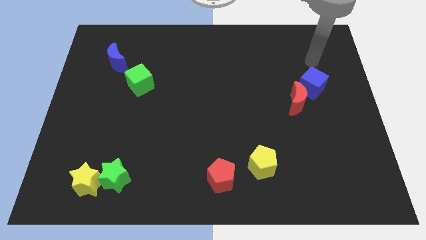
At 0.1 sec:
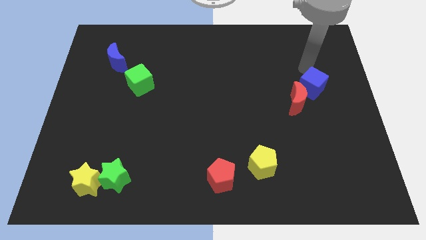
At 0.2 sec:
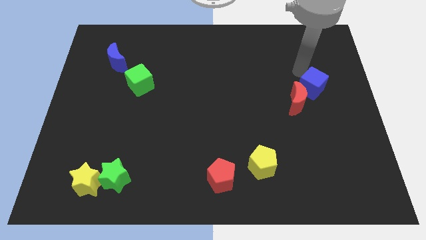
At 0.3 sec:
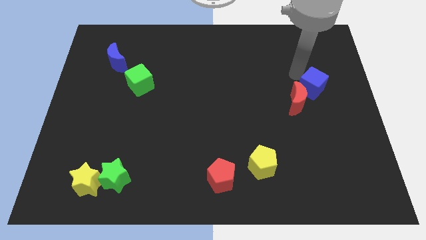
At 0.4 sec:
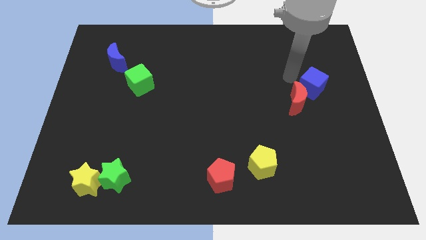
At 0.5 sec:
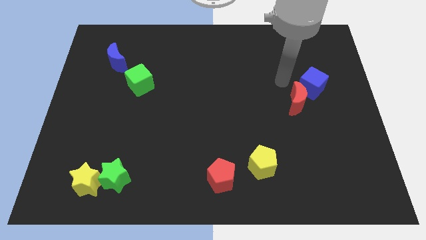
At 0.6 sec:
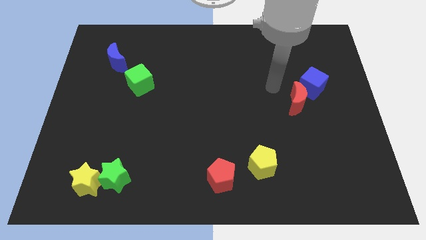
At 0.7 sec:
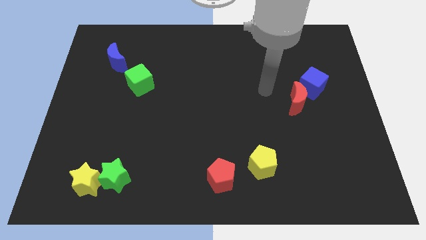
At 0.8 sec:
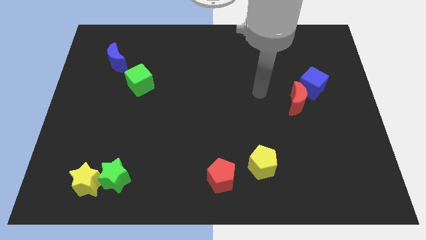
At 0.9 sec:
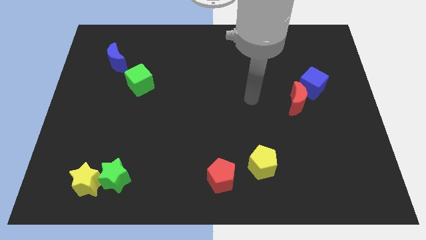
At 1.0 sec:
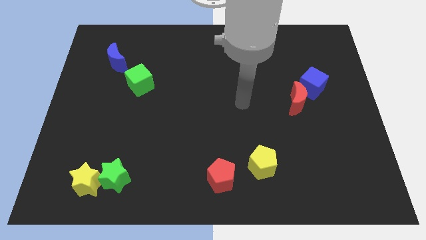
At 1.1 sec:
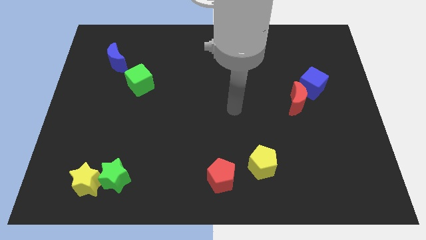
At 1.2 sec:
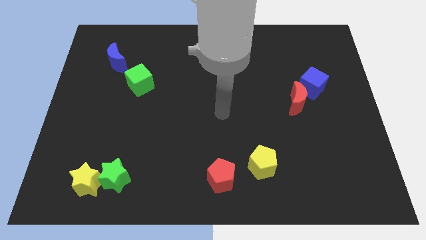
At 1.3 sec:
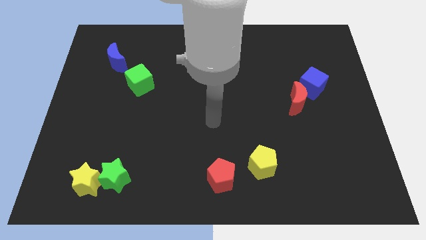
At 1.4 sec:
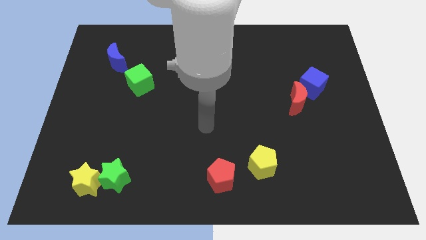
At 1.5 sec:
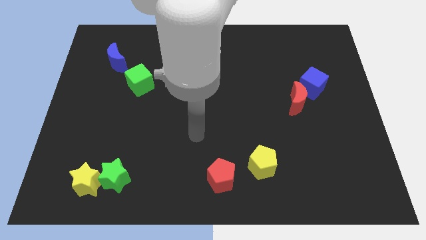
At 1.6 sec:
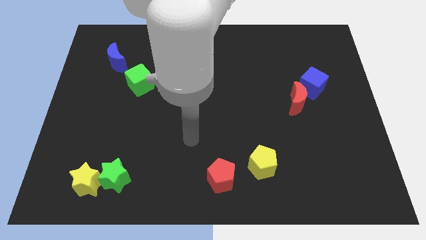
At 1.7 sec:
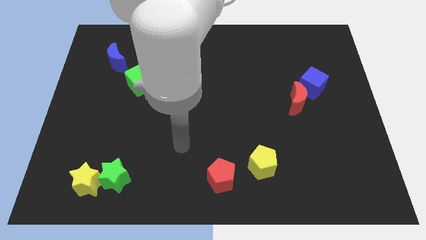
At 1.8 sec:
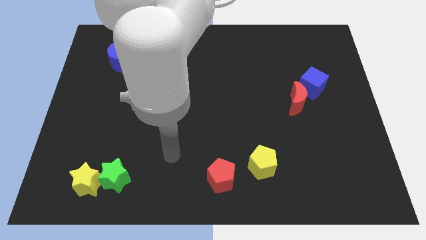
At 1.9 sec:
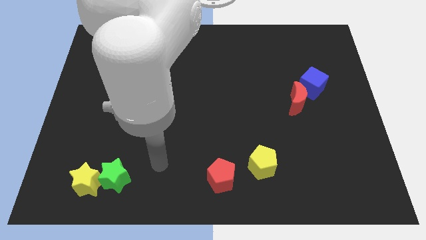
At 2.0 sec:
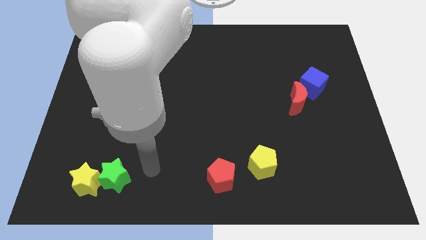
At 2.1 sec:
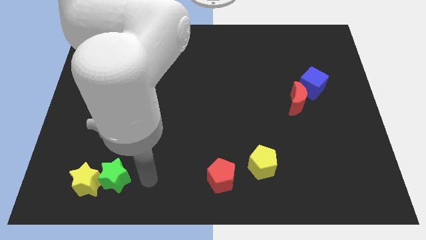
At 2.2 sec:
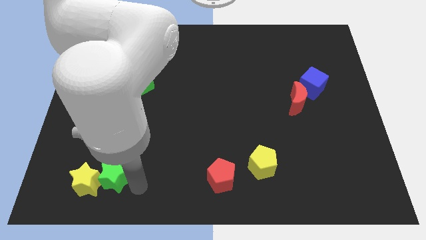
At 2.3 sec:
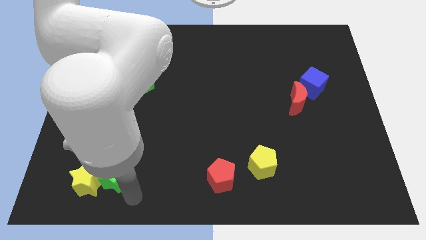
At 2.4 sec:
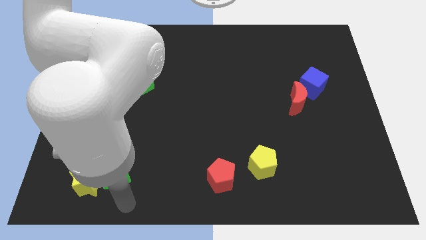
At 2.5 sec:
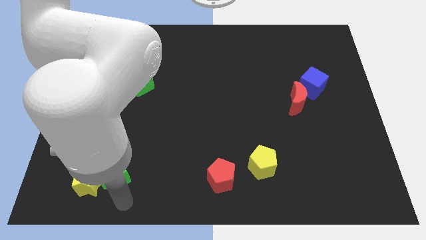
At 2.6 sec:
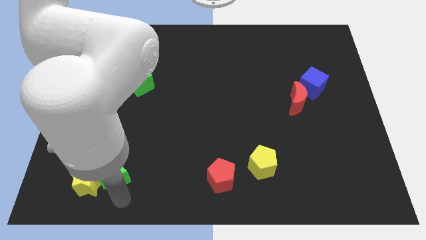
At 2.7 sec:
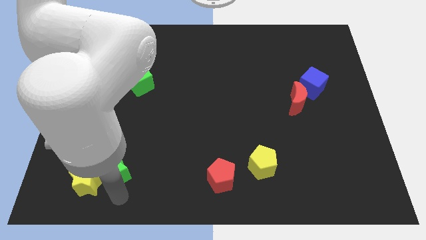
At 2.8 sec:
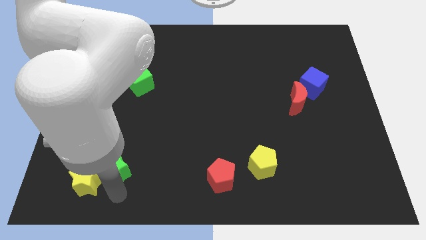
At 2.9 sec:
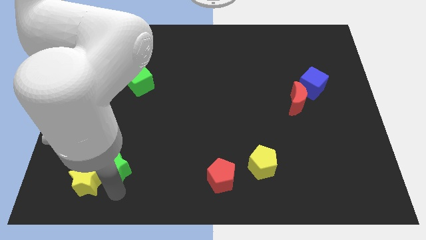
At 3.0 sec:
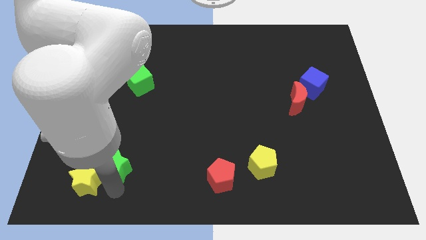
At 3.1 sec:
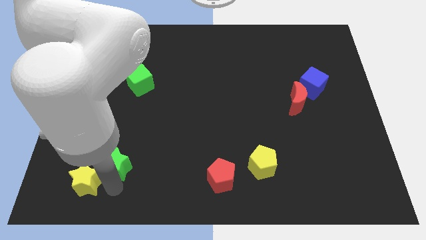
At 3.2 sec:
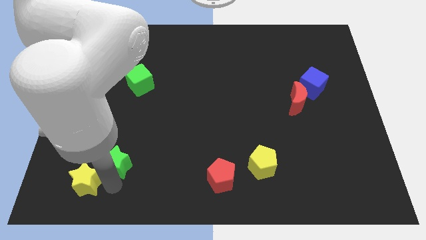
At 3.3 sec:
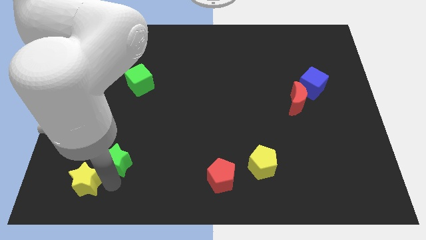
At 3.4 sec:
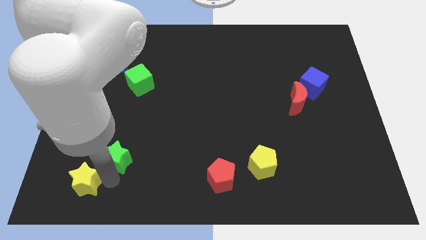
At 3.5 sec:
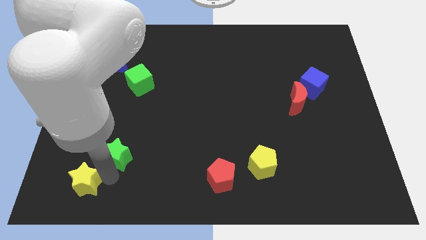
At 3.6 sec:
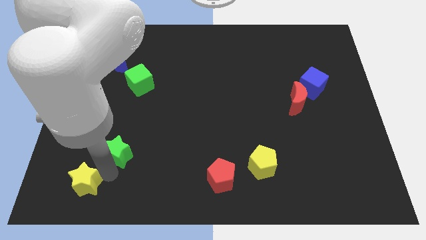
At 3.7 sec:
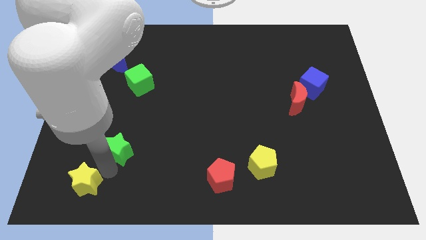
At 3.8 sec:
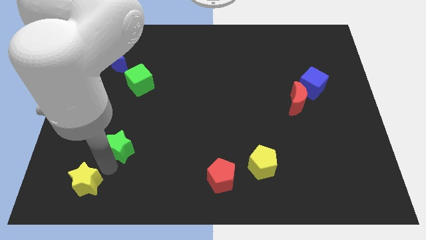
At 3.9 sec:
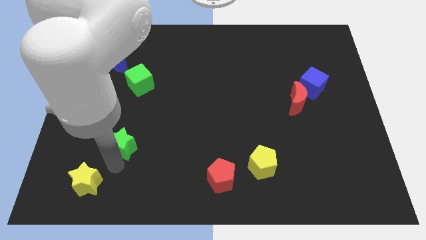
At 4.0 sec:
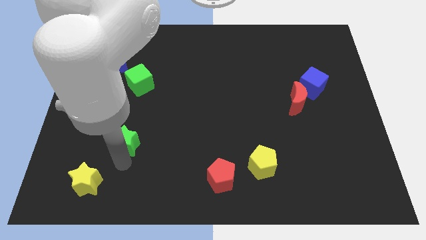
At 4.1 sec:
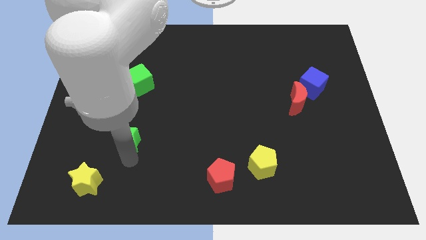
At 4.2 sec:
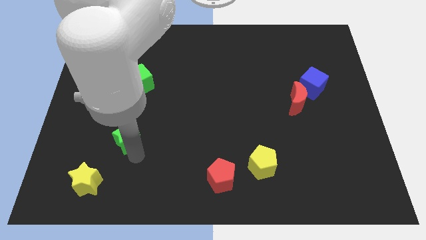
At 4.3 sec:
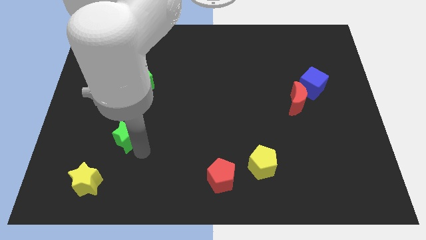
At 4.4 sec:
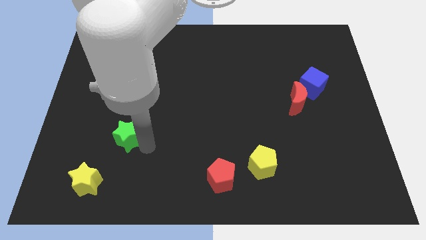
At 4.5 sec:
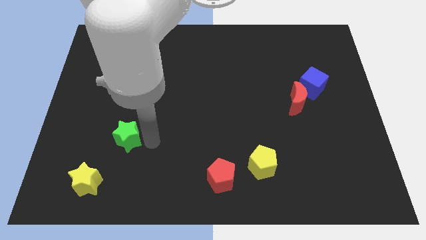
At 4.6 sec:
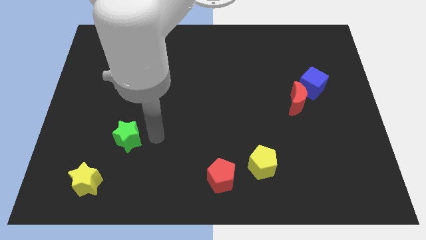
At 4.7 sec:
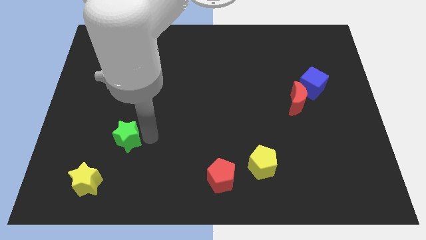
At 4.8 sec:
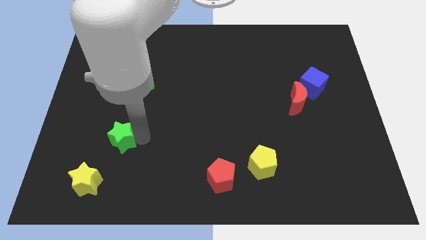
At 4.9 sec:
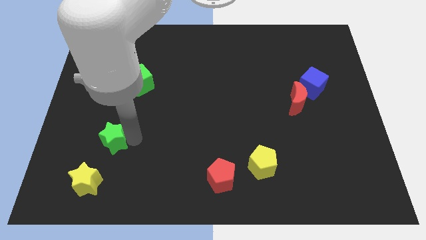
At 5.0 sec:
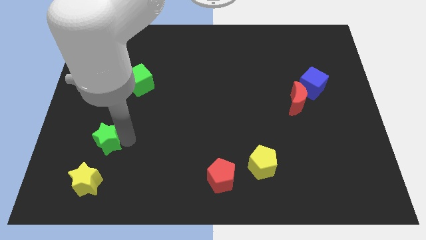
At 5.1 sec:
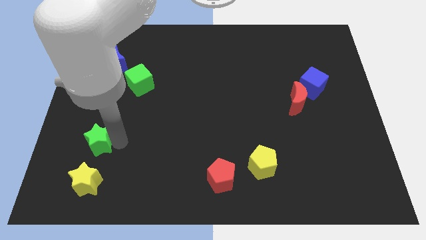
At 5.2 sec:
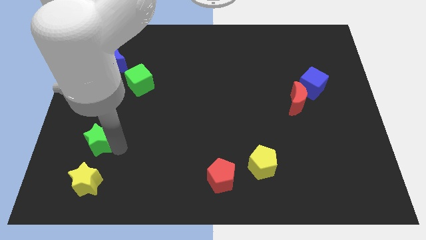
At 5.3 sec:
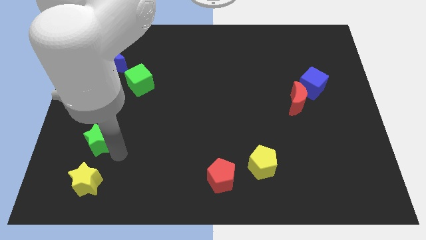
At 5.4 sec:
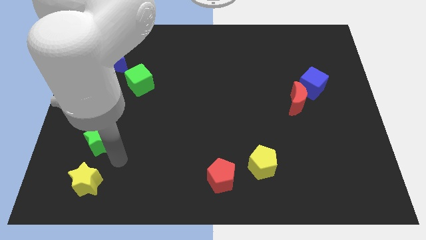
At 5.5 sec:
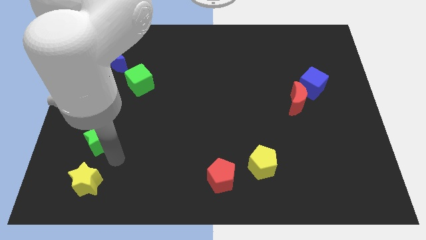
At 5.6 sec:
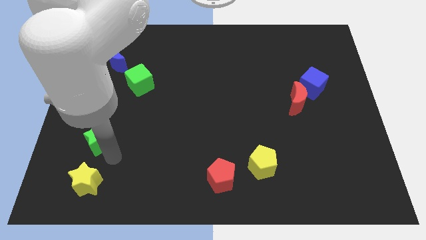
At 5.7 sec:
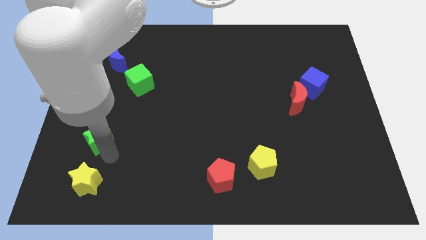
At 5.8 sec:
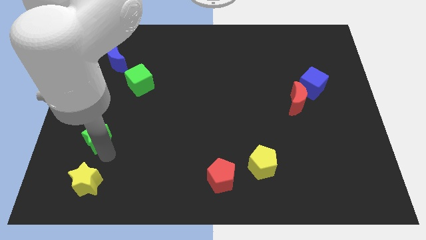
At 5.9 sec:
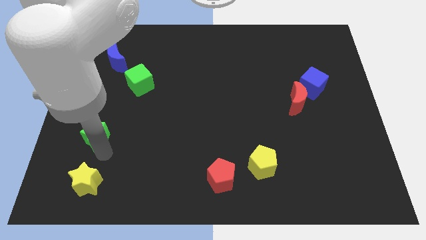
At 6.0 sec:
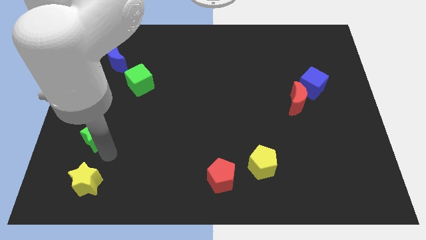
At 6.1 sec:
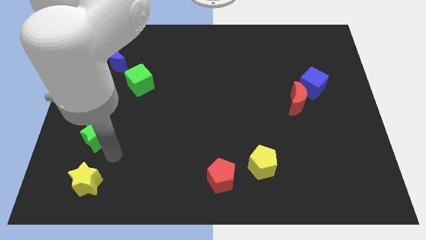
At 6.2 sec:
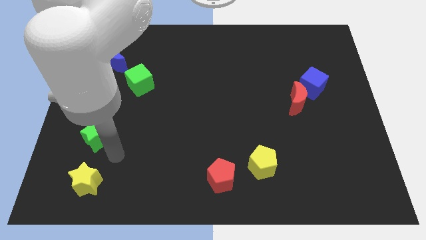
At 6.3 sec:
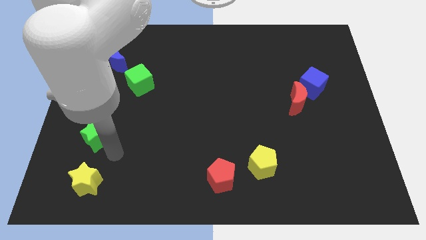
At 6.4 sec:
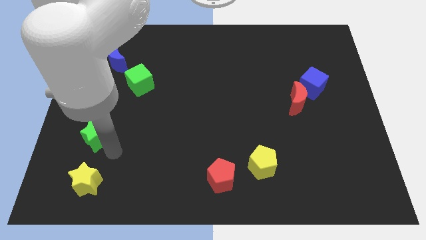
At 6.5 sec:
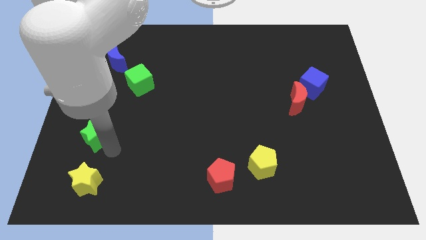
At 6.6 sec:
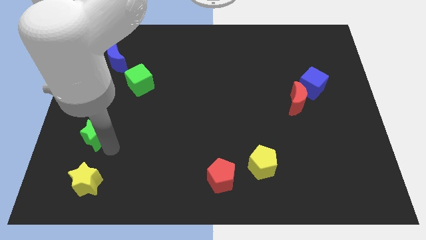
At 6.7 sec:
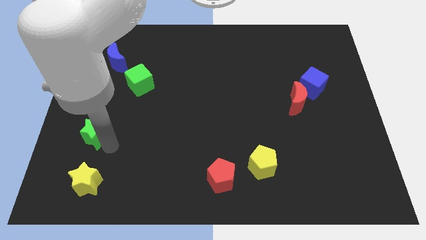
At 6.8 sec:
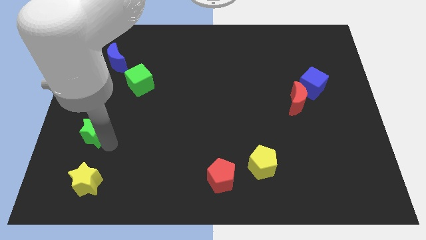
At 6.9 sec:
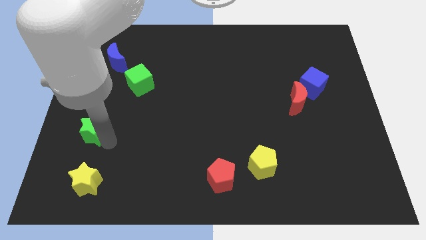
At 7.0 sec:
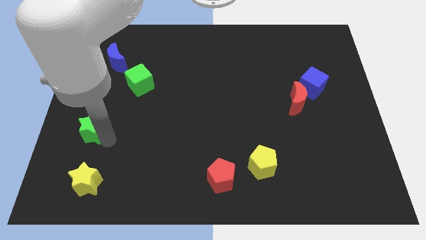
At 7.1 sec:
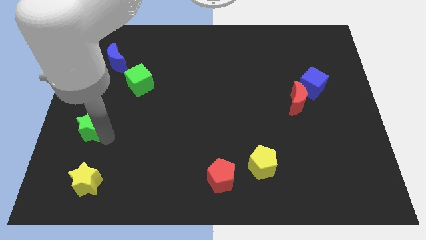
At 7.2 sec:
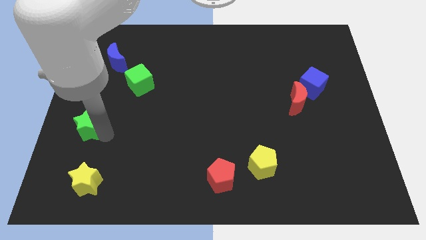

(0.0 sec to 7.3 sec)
push the green star to the left side
